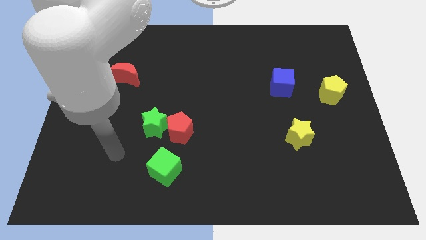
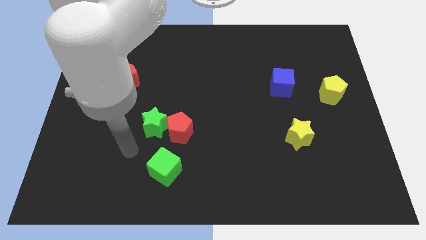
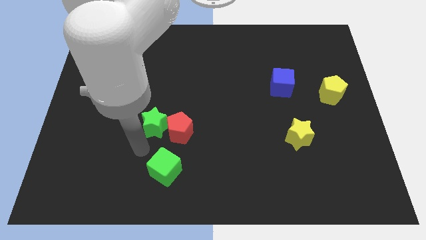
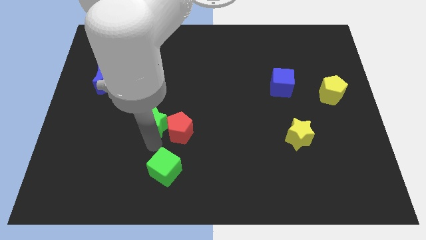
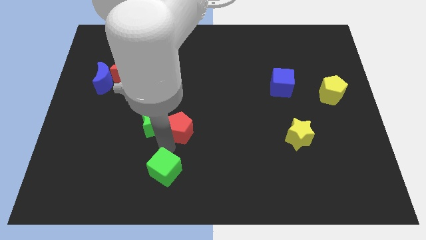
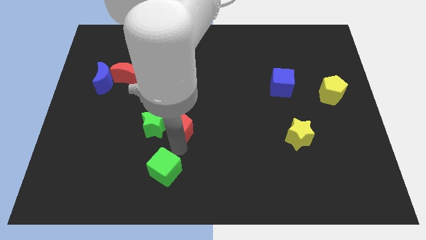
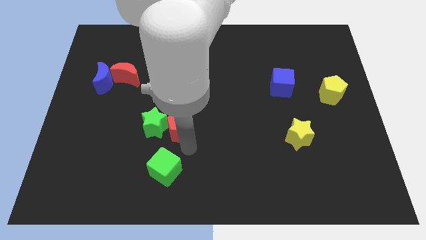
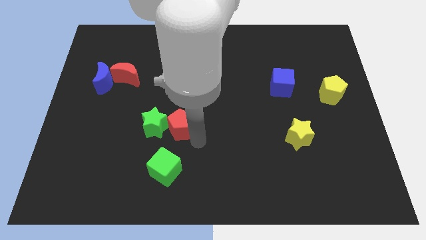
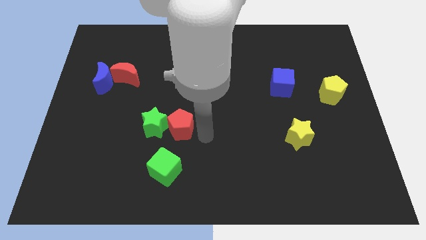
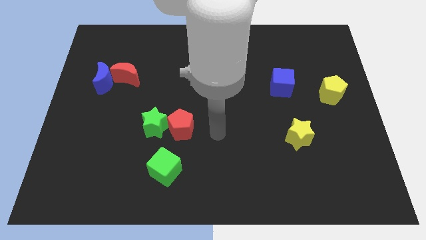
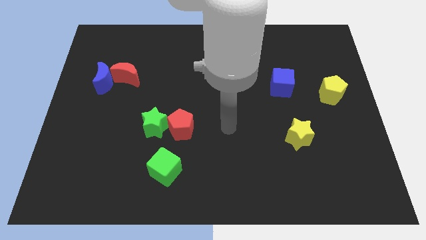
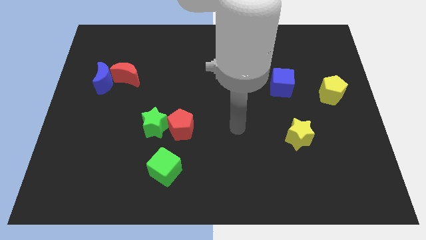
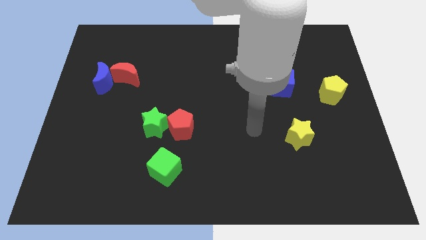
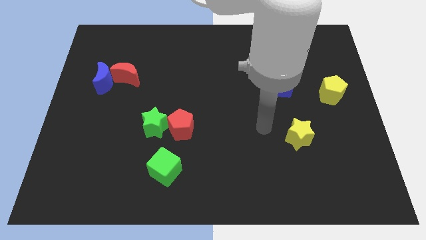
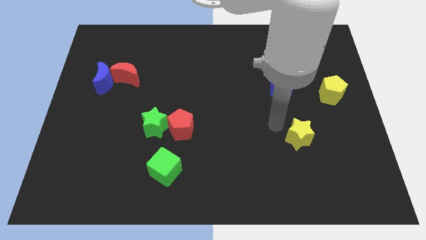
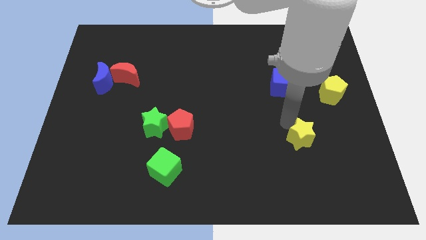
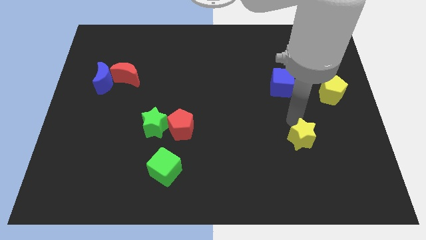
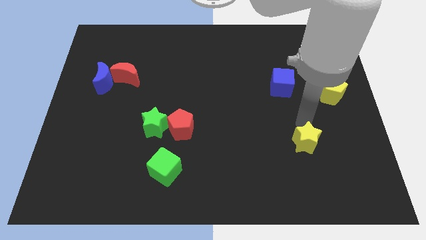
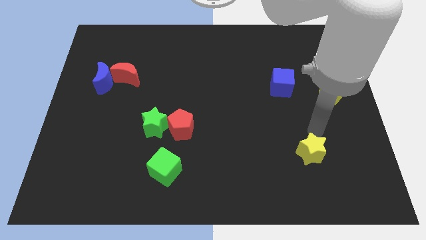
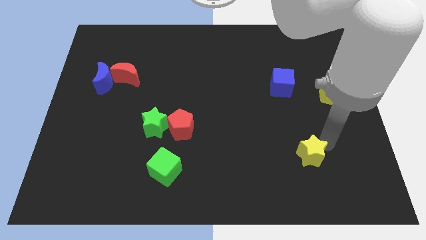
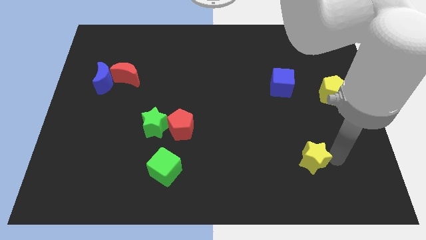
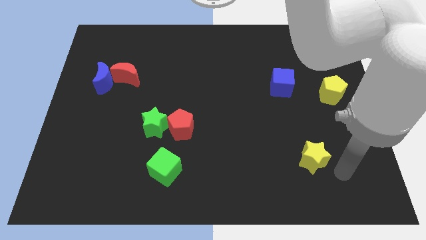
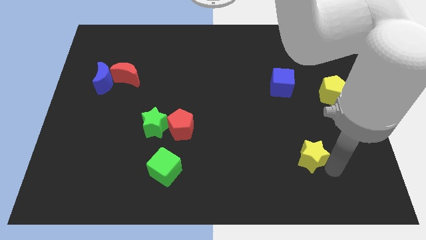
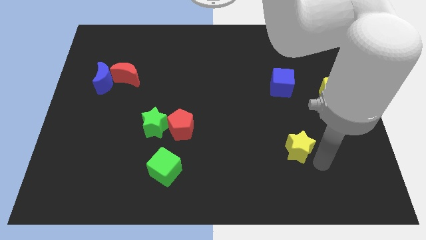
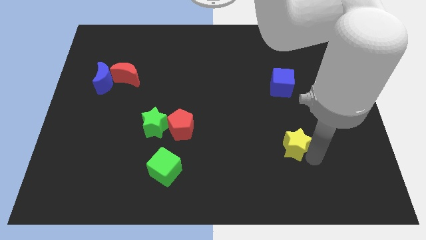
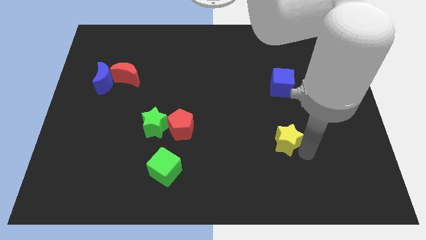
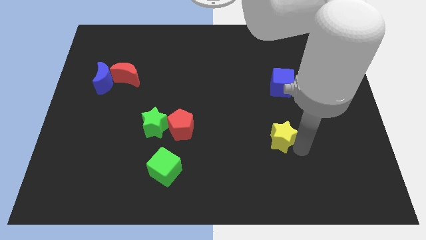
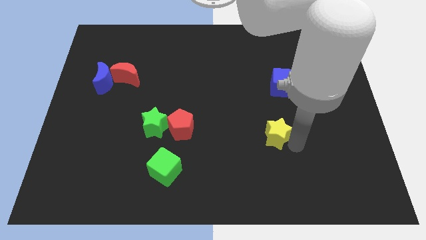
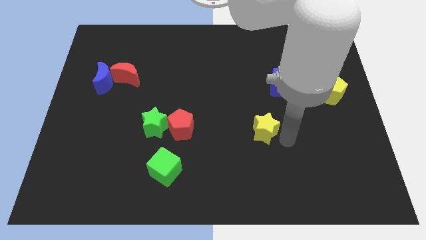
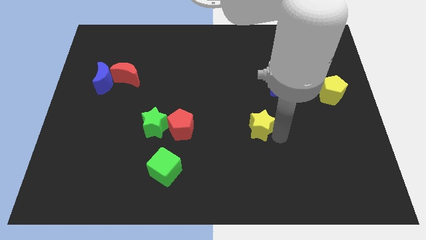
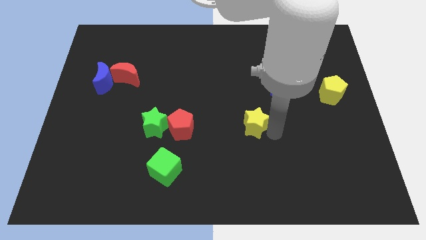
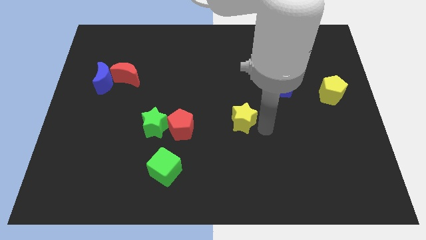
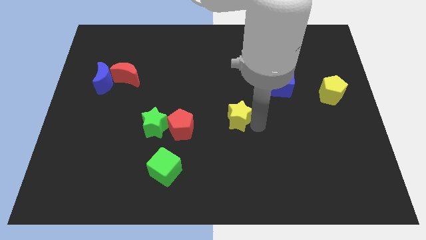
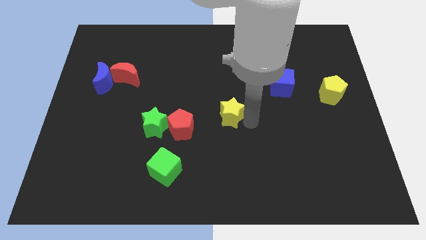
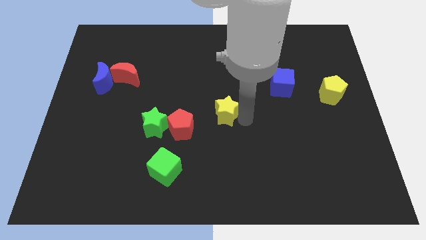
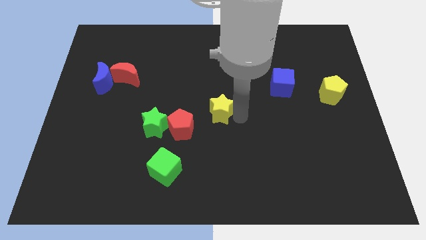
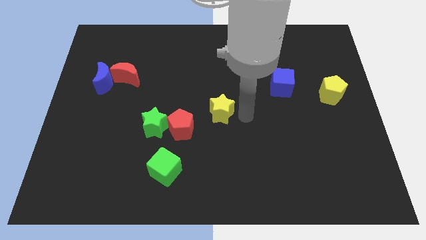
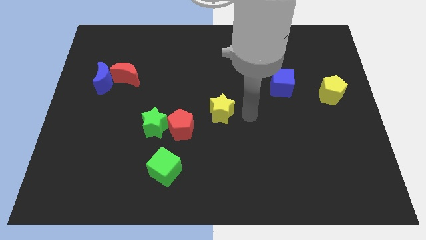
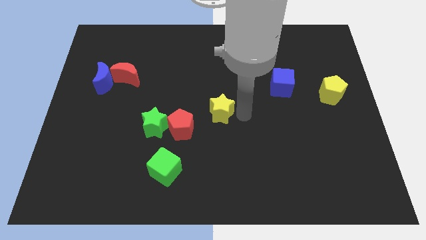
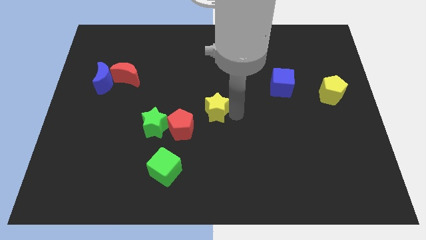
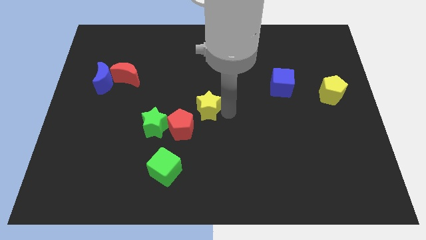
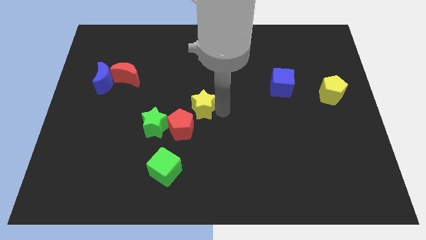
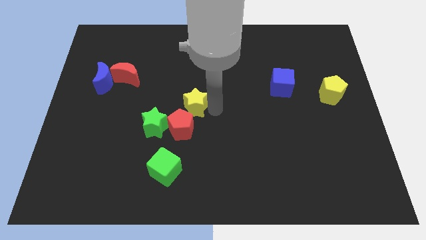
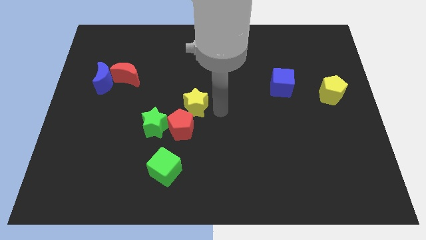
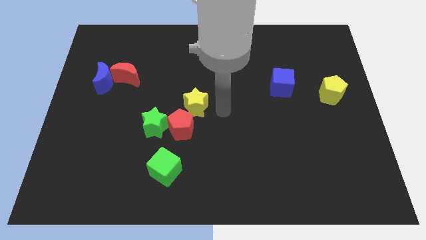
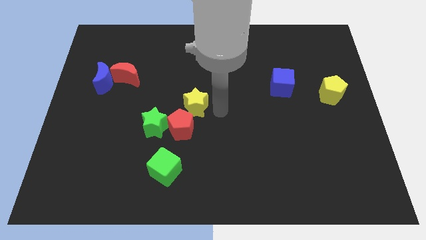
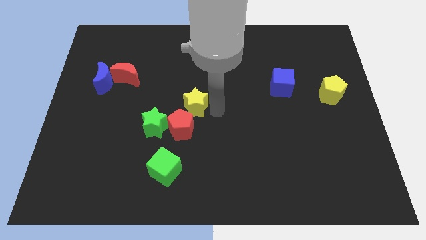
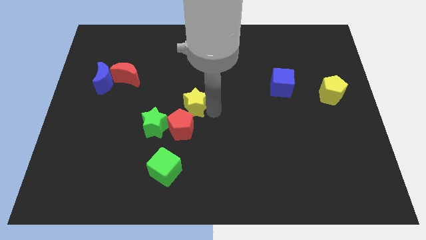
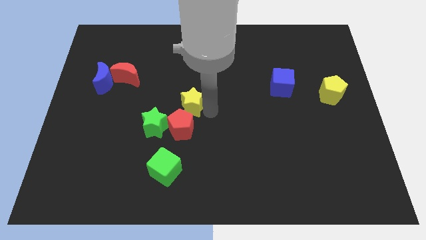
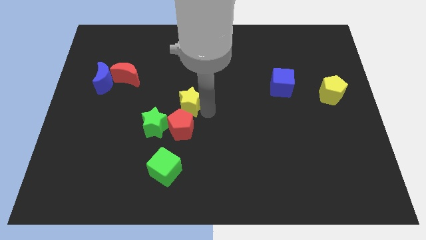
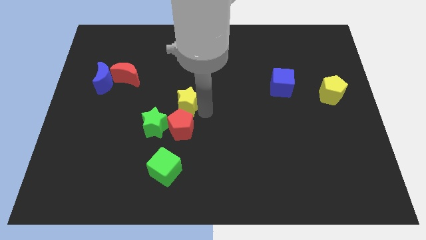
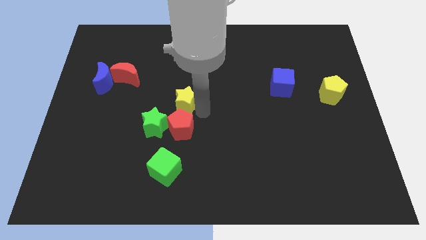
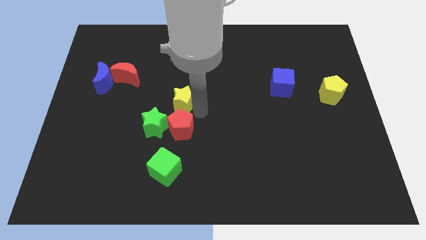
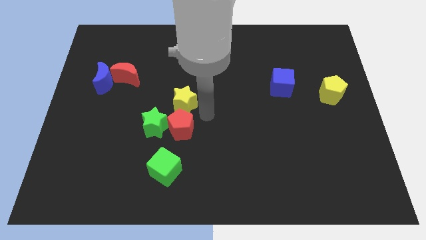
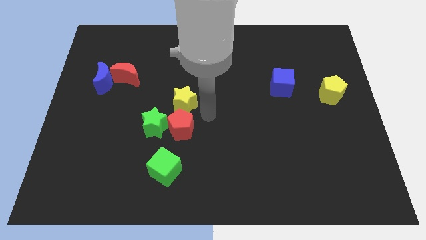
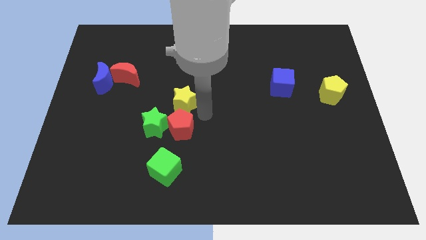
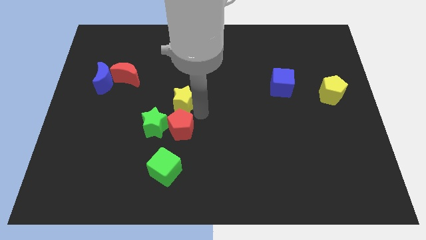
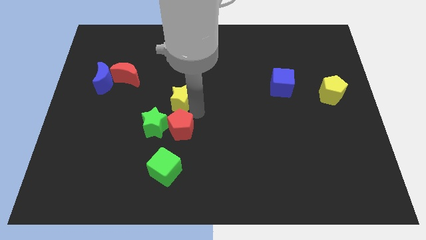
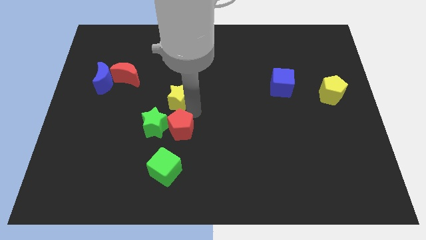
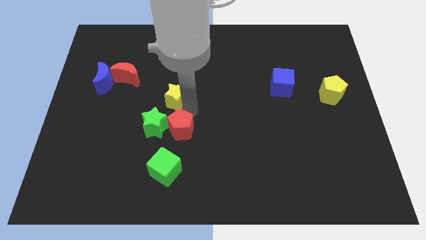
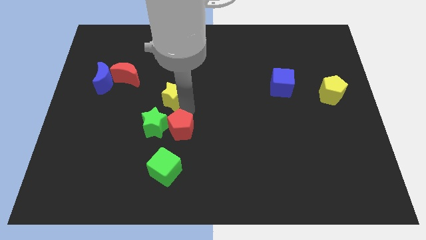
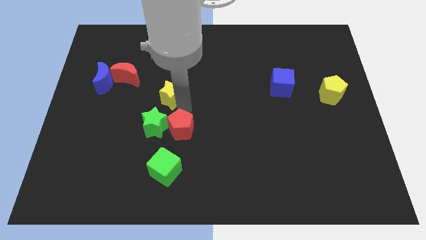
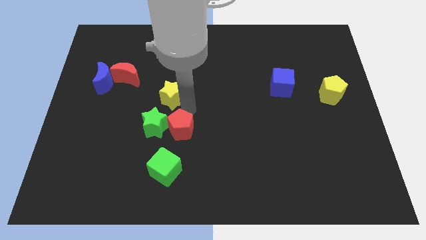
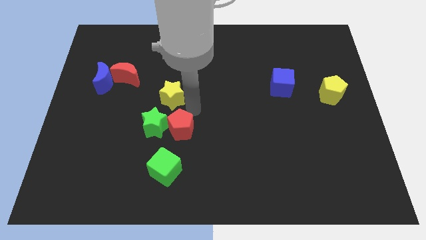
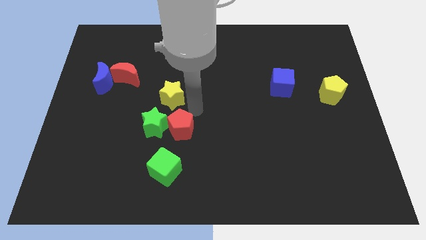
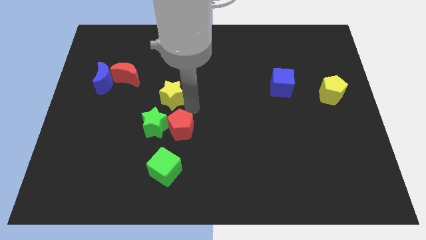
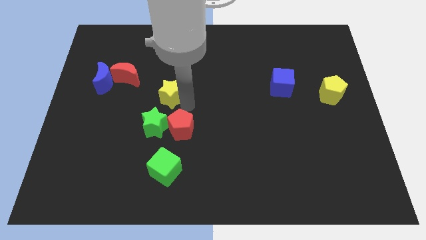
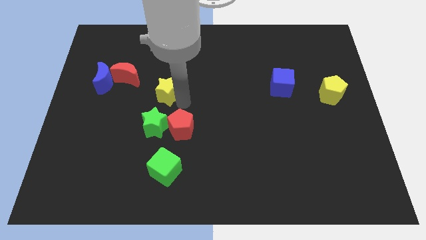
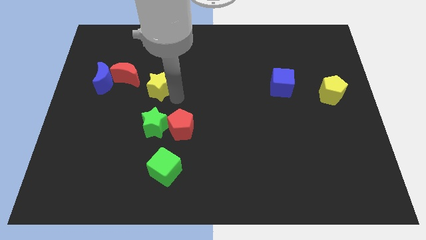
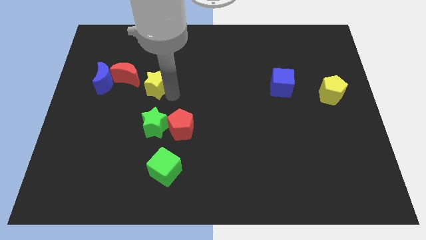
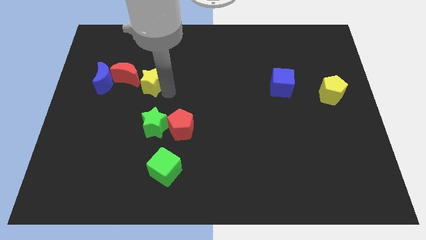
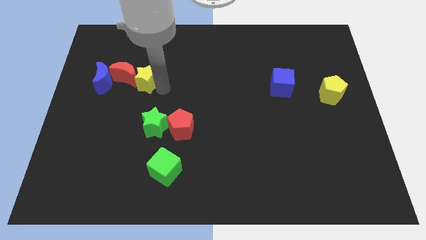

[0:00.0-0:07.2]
move the yellow star to the red moon
